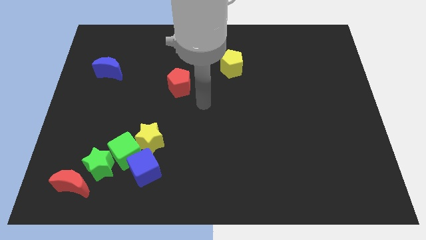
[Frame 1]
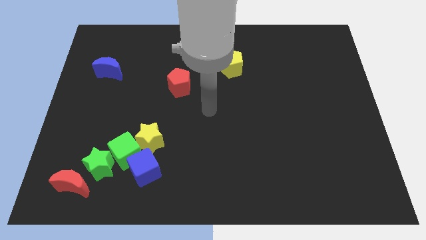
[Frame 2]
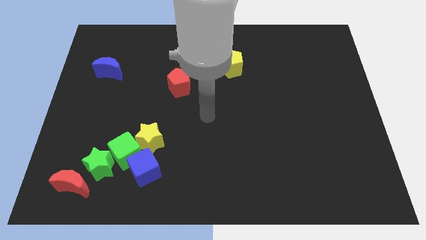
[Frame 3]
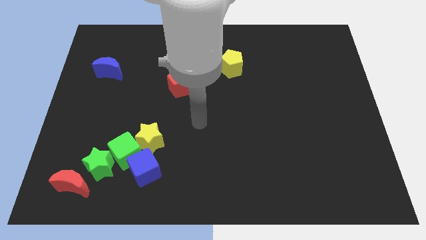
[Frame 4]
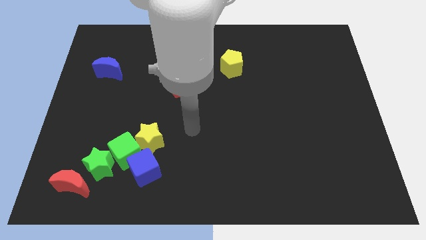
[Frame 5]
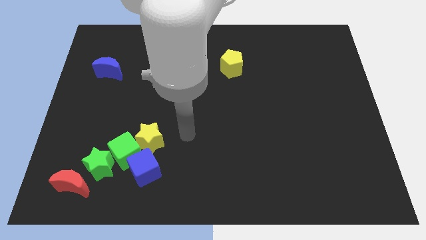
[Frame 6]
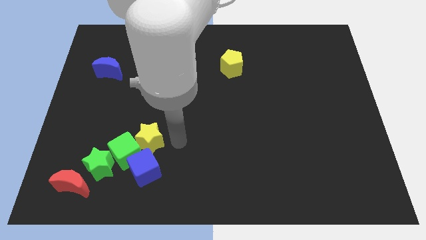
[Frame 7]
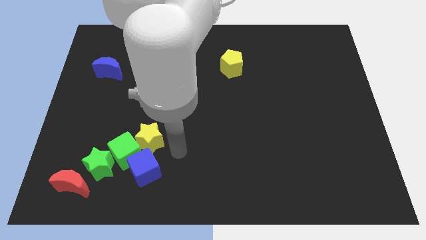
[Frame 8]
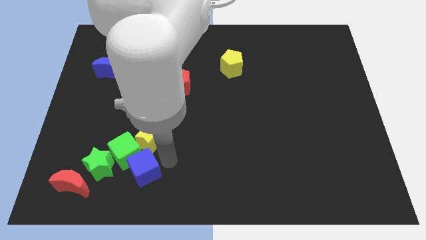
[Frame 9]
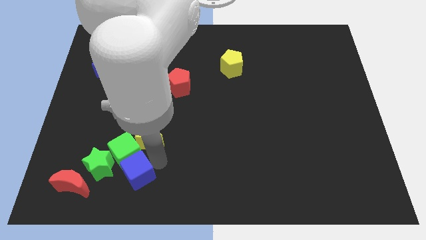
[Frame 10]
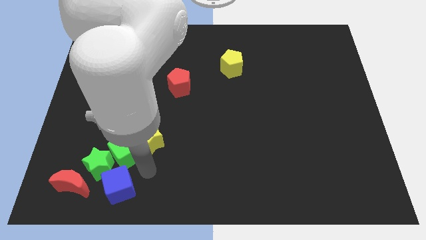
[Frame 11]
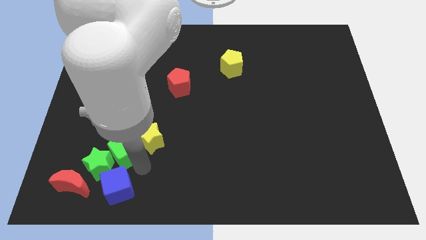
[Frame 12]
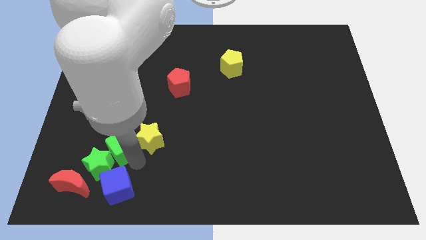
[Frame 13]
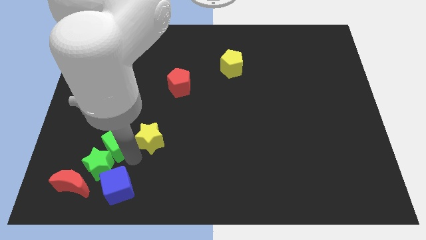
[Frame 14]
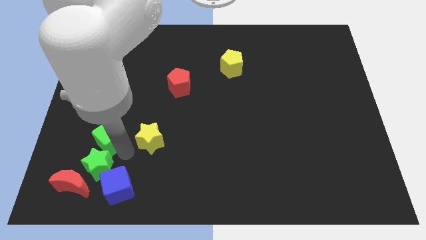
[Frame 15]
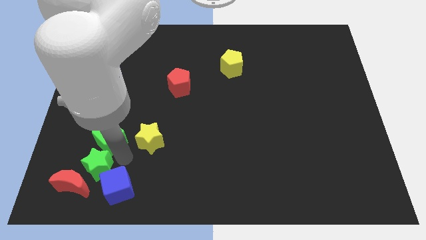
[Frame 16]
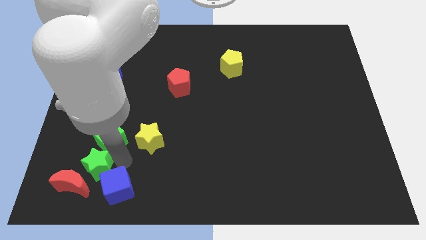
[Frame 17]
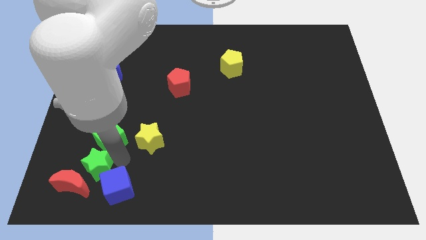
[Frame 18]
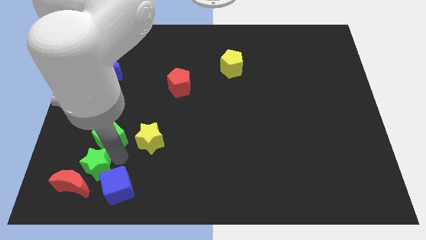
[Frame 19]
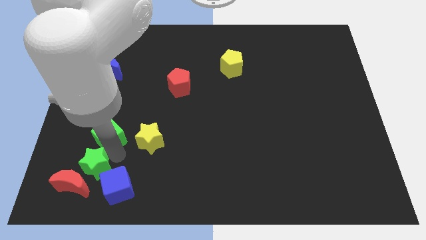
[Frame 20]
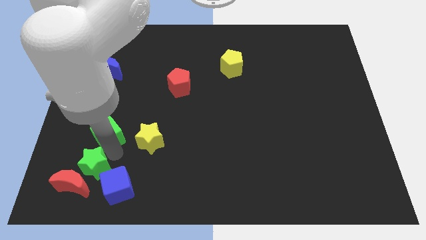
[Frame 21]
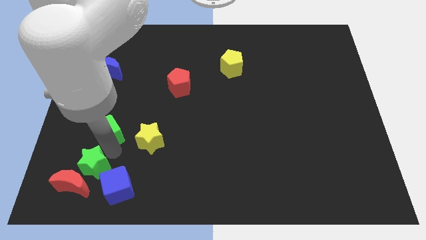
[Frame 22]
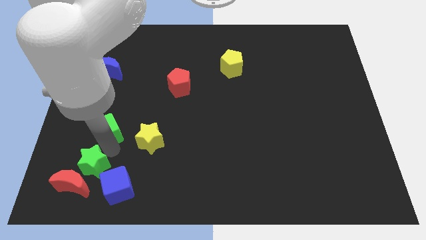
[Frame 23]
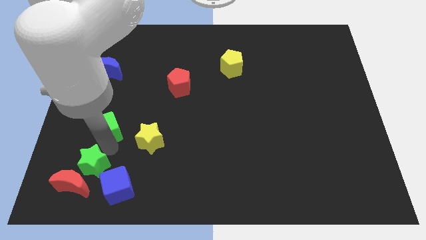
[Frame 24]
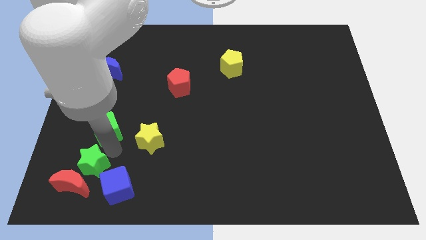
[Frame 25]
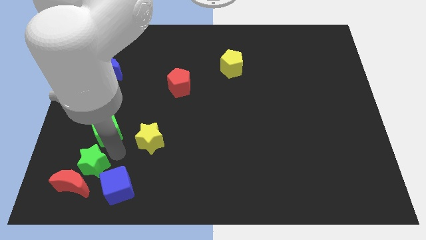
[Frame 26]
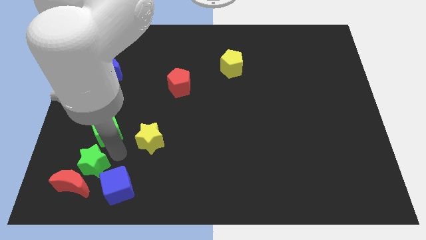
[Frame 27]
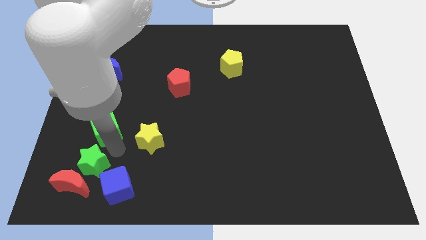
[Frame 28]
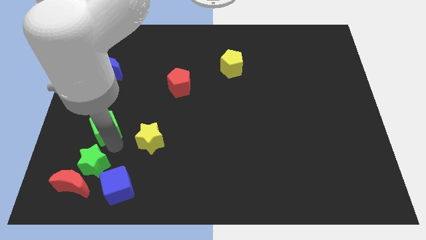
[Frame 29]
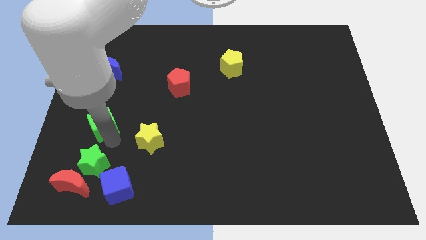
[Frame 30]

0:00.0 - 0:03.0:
move the green cube away from the yellow star, blue cube, and green star

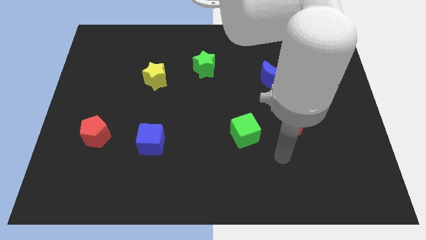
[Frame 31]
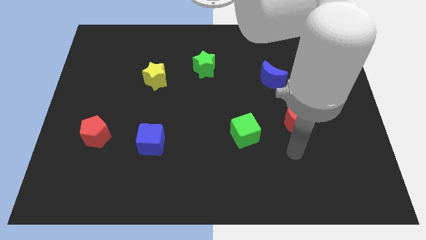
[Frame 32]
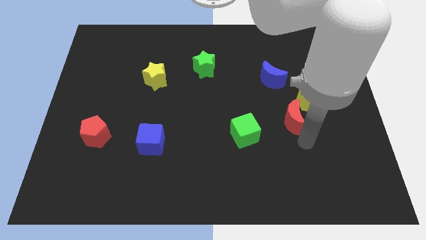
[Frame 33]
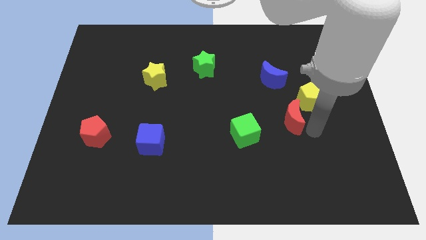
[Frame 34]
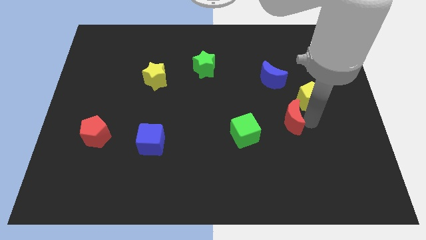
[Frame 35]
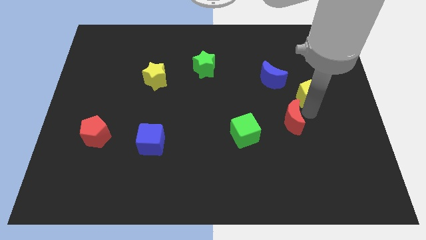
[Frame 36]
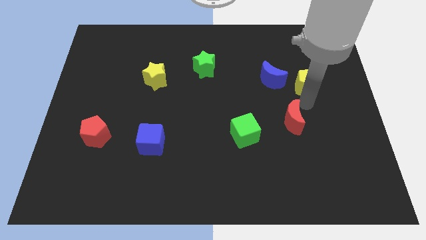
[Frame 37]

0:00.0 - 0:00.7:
move the red moon away from the yellow pentagon

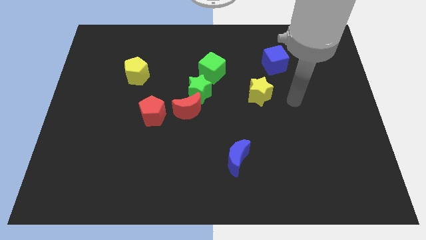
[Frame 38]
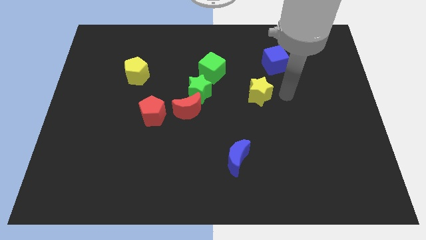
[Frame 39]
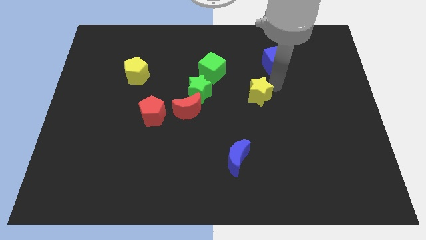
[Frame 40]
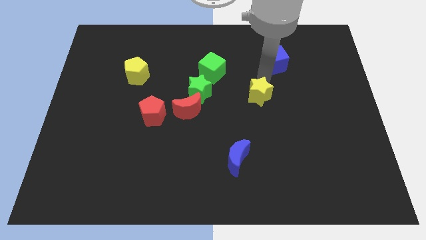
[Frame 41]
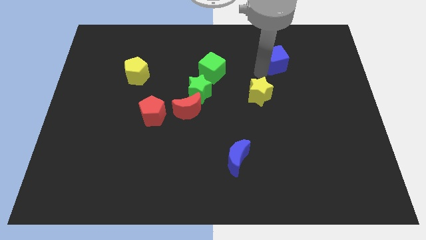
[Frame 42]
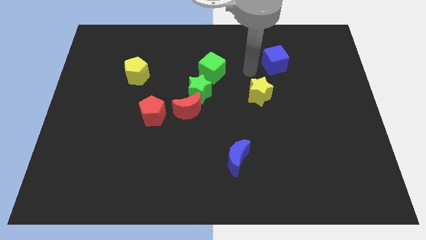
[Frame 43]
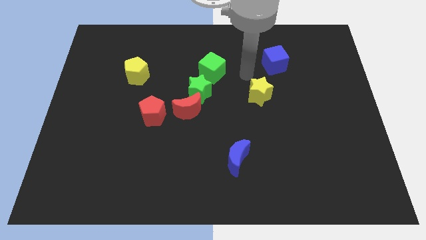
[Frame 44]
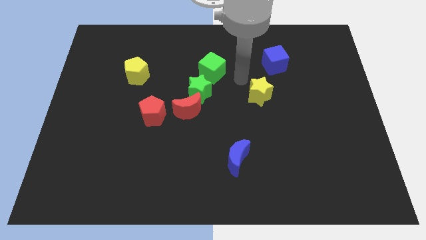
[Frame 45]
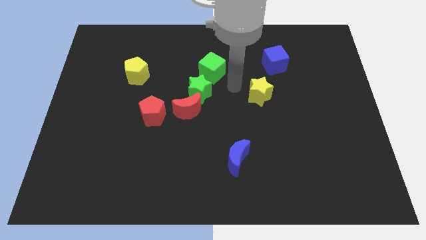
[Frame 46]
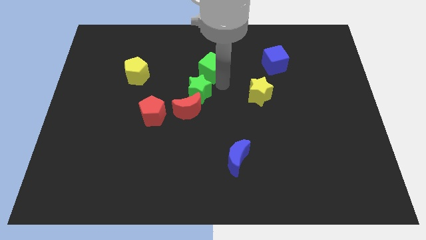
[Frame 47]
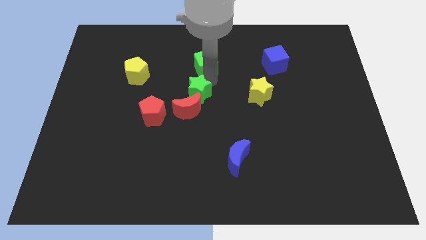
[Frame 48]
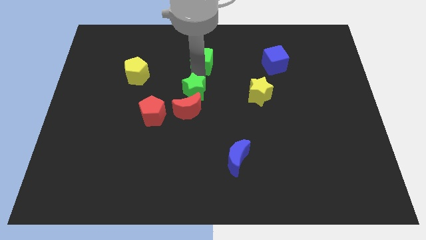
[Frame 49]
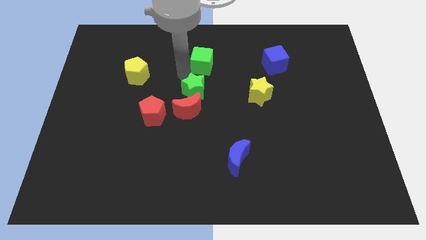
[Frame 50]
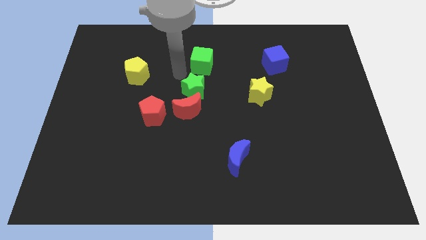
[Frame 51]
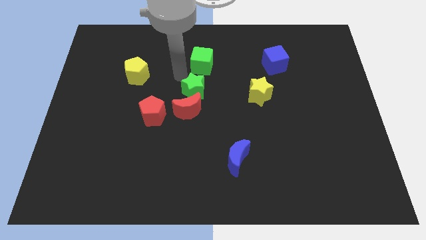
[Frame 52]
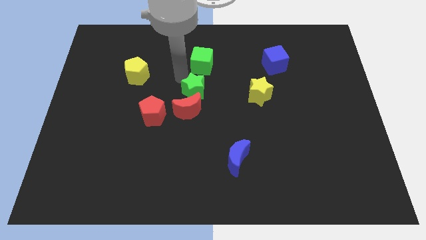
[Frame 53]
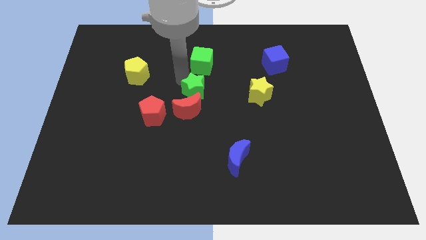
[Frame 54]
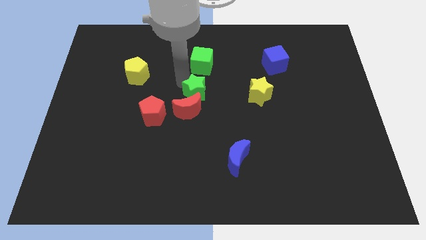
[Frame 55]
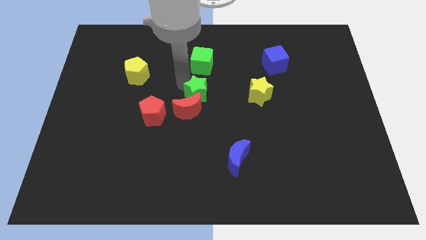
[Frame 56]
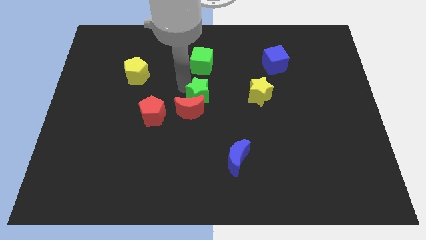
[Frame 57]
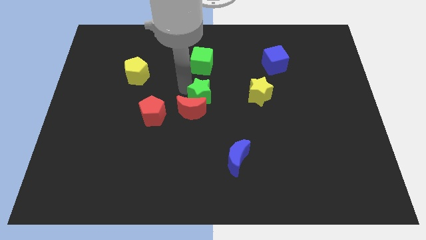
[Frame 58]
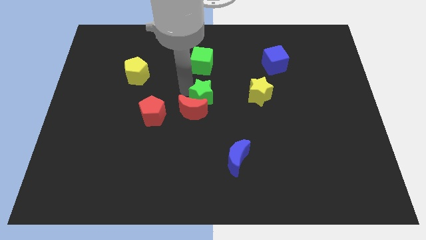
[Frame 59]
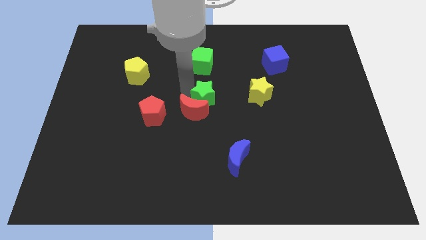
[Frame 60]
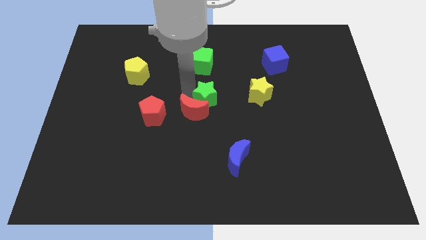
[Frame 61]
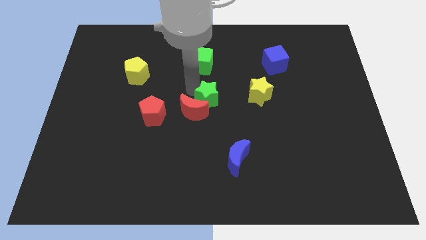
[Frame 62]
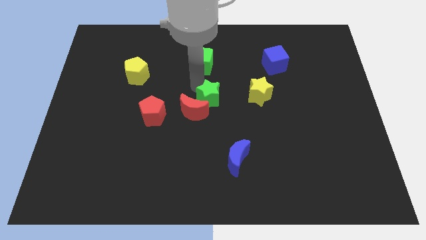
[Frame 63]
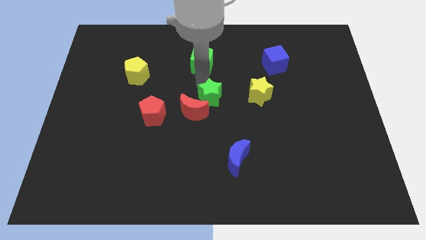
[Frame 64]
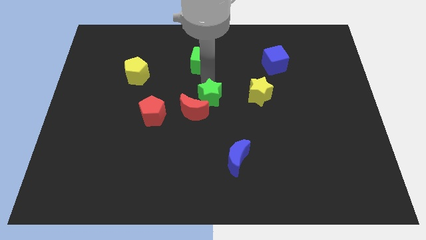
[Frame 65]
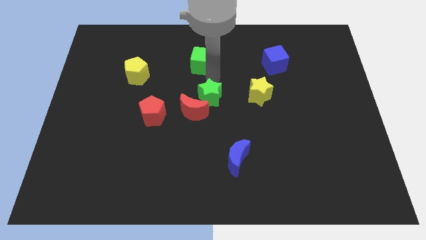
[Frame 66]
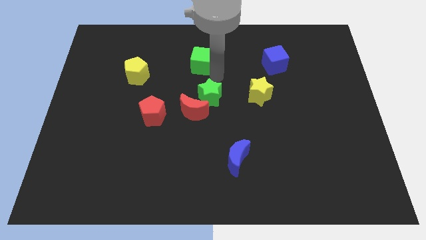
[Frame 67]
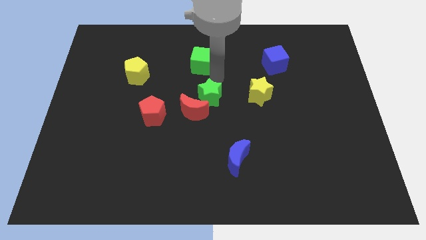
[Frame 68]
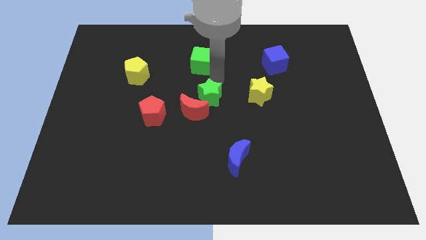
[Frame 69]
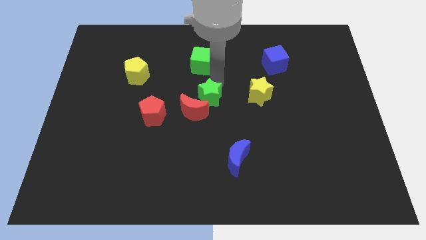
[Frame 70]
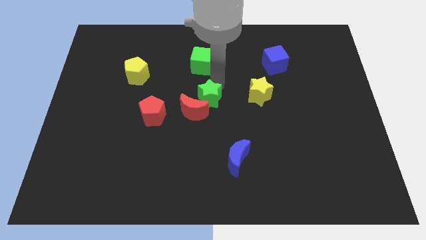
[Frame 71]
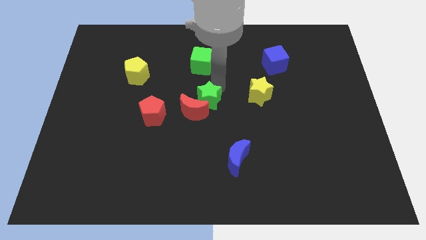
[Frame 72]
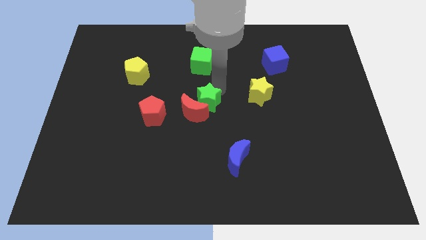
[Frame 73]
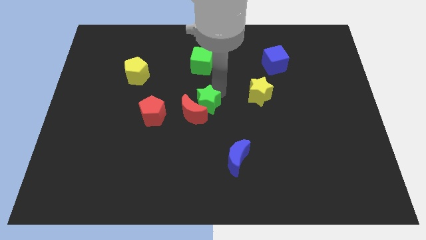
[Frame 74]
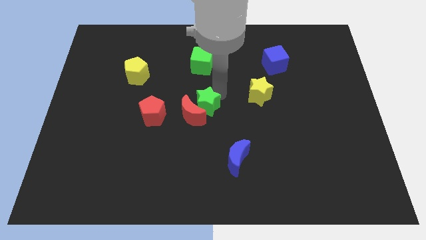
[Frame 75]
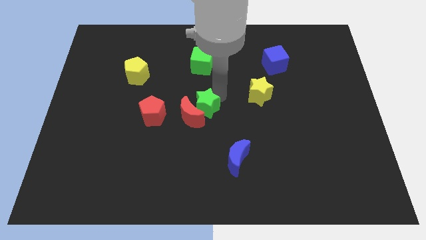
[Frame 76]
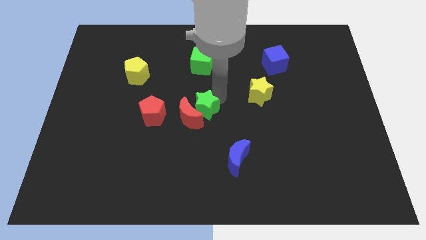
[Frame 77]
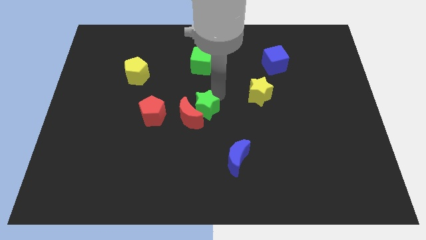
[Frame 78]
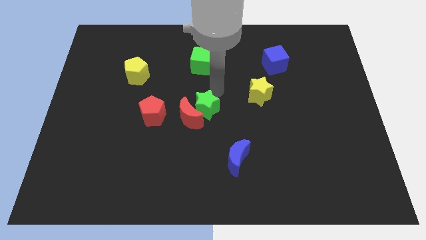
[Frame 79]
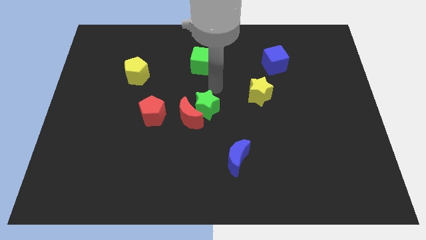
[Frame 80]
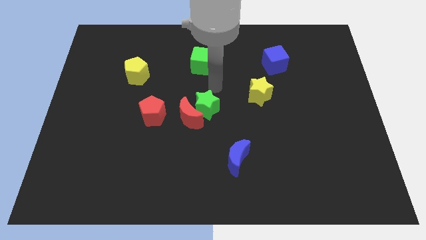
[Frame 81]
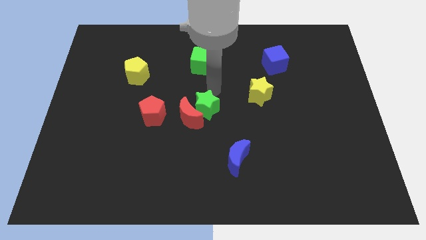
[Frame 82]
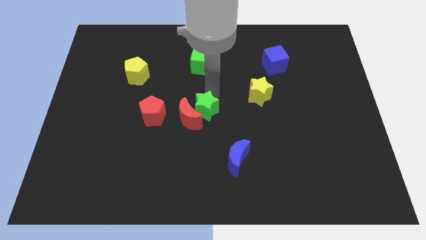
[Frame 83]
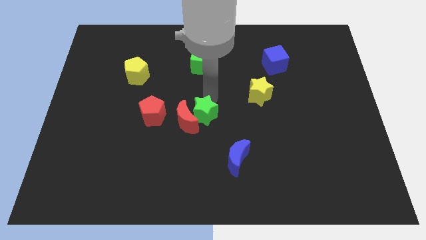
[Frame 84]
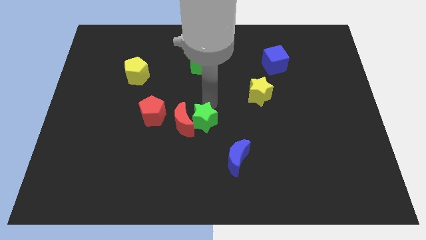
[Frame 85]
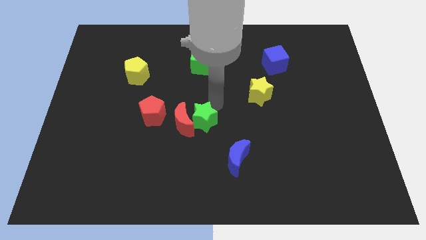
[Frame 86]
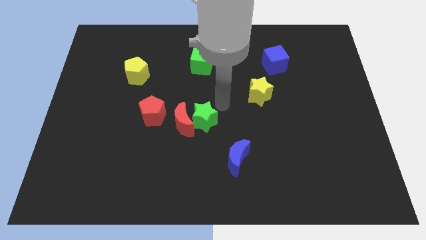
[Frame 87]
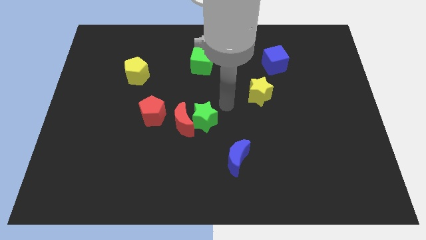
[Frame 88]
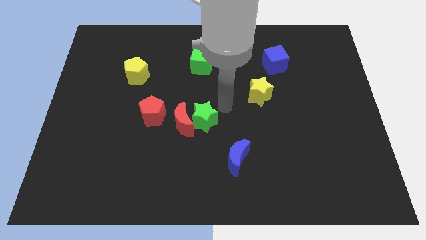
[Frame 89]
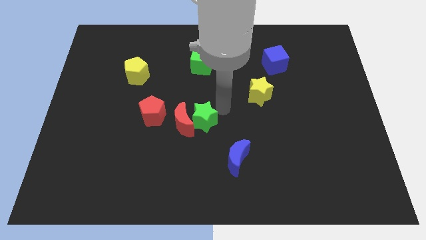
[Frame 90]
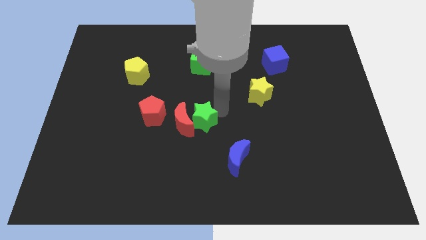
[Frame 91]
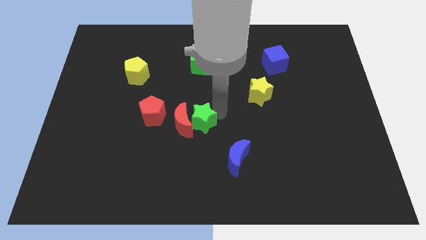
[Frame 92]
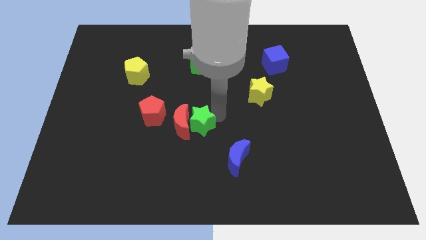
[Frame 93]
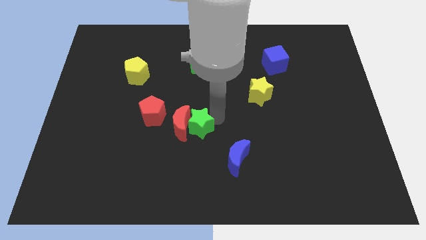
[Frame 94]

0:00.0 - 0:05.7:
move the green star away from the red moon and green cube
